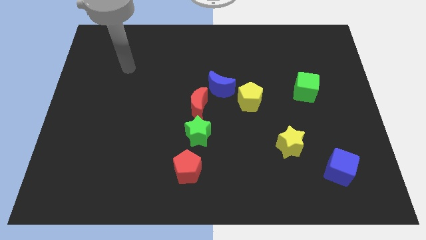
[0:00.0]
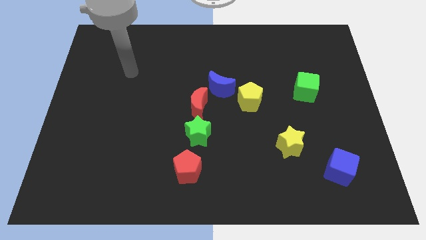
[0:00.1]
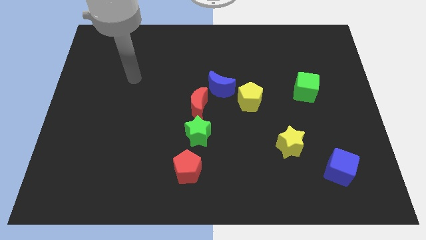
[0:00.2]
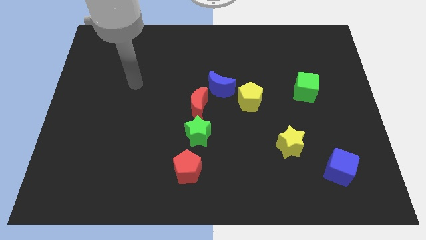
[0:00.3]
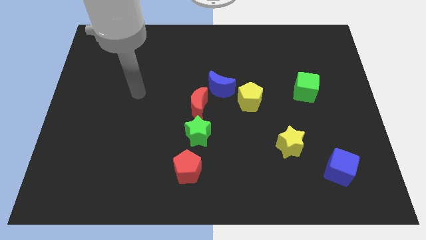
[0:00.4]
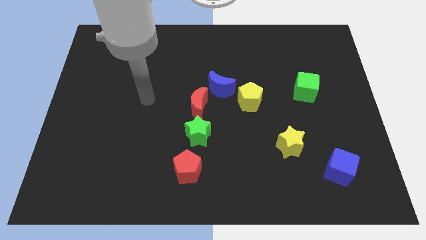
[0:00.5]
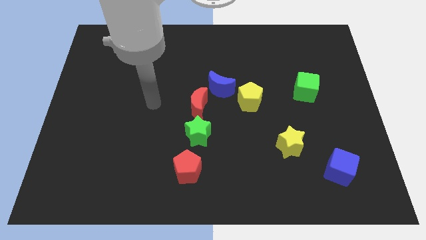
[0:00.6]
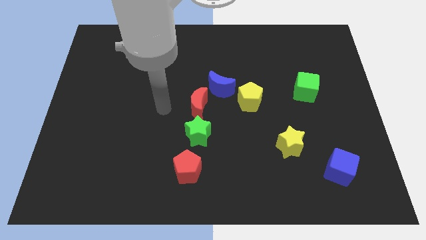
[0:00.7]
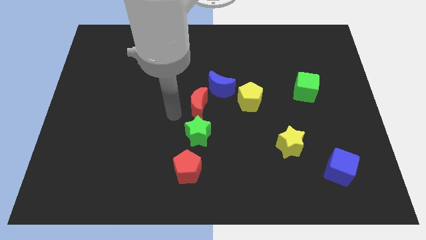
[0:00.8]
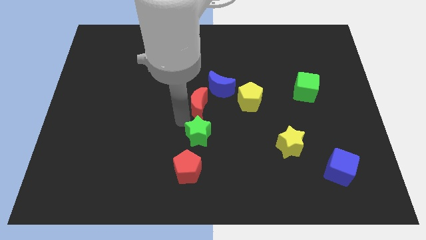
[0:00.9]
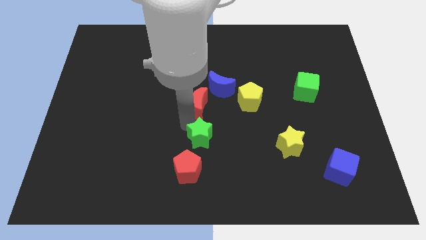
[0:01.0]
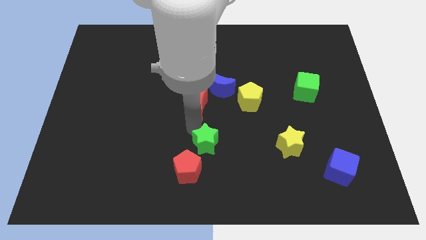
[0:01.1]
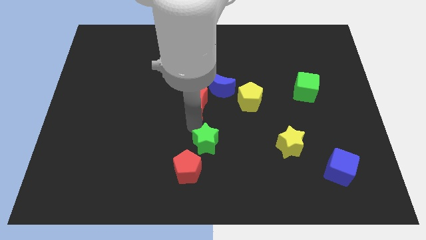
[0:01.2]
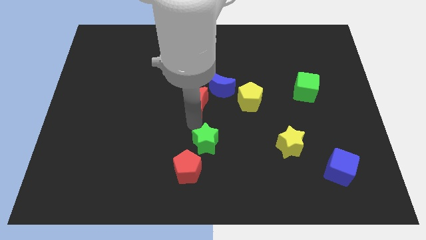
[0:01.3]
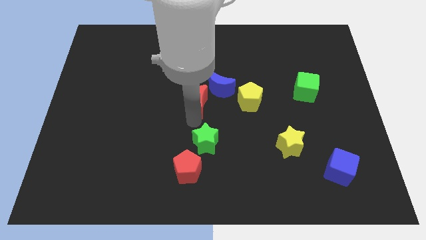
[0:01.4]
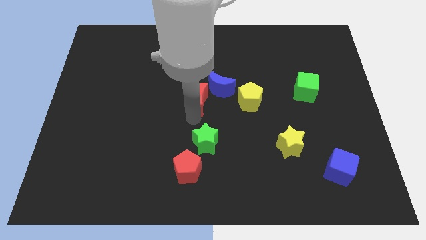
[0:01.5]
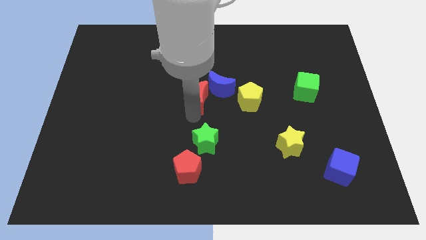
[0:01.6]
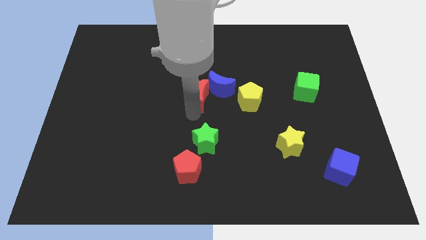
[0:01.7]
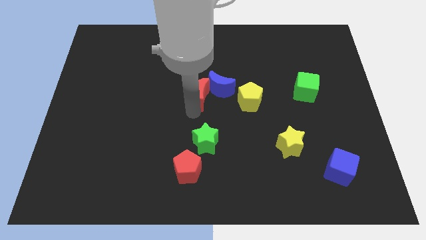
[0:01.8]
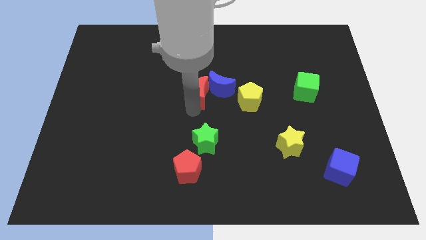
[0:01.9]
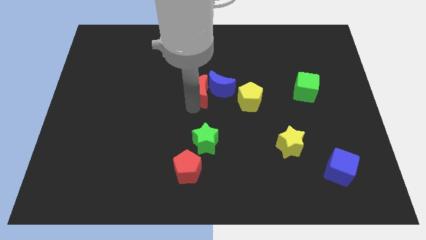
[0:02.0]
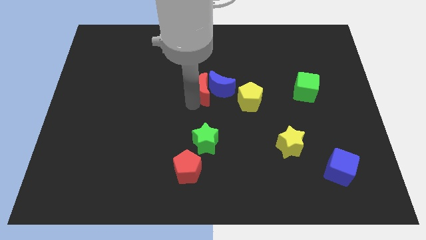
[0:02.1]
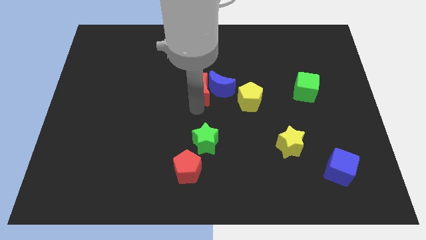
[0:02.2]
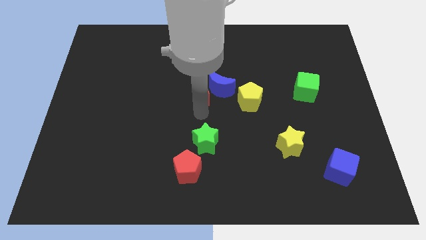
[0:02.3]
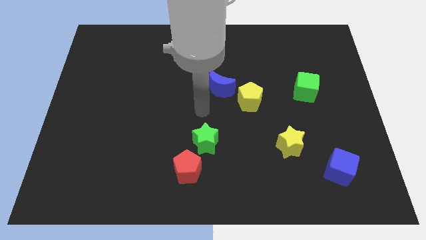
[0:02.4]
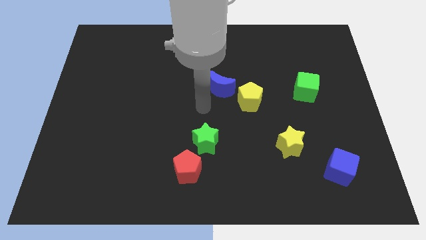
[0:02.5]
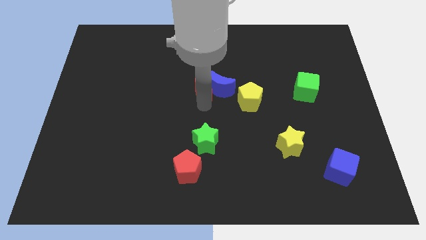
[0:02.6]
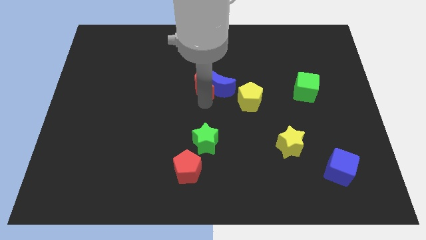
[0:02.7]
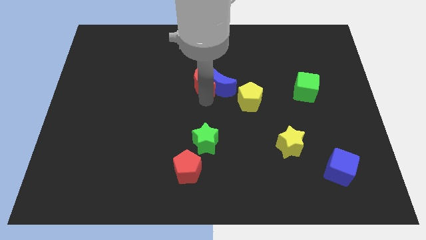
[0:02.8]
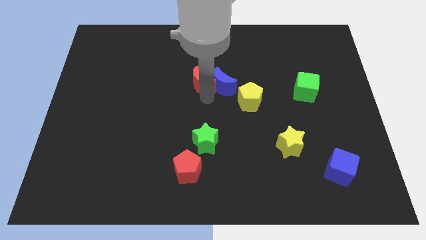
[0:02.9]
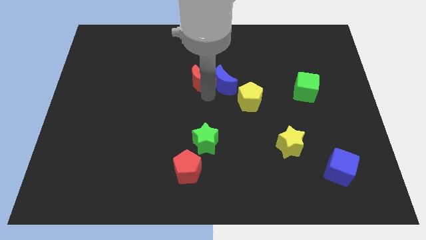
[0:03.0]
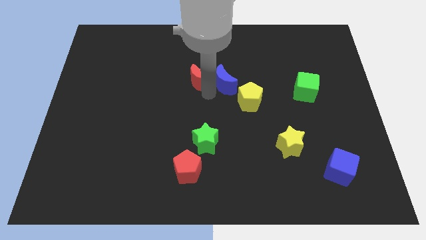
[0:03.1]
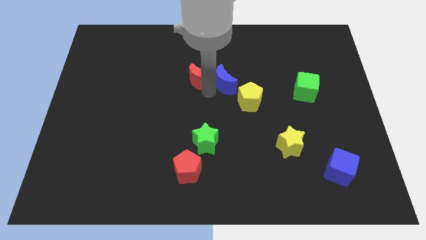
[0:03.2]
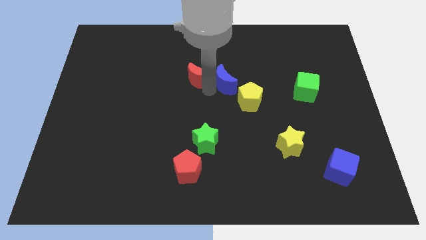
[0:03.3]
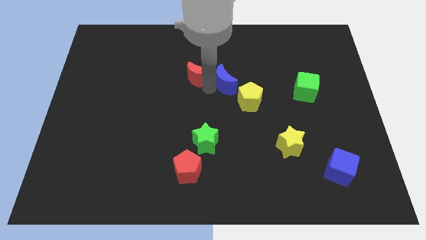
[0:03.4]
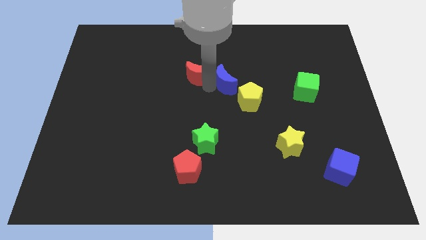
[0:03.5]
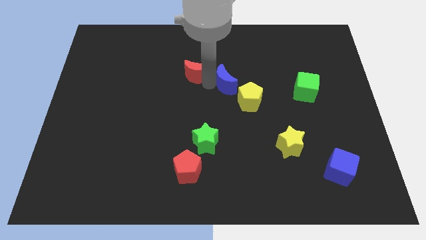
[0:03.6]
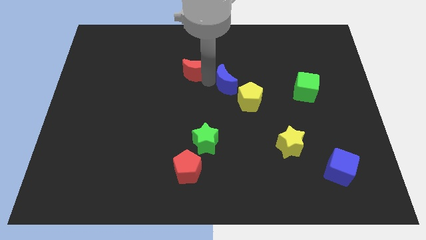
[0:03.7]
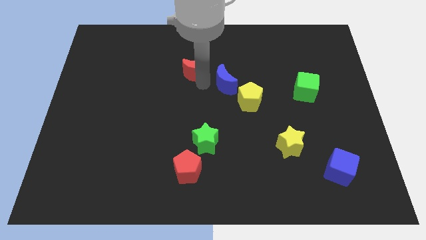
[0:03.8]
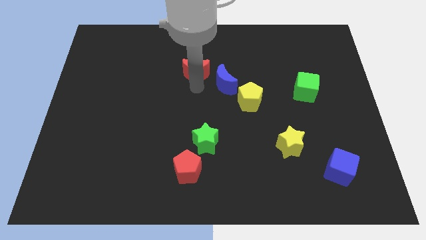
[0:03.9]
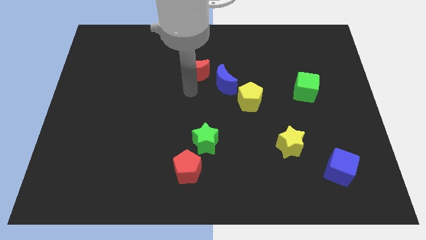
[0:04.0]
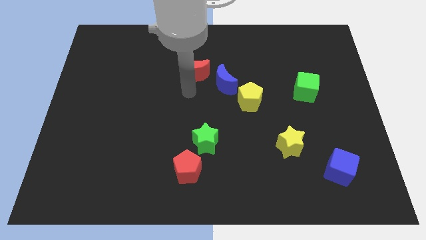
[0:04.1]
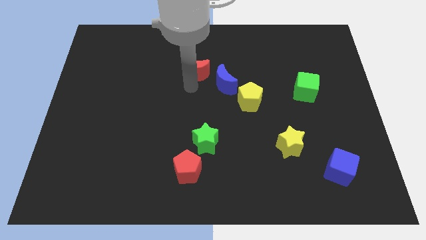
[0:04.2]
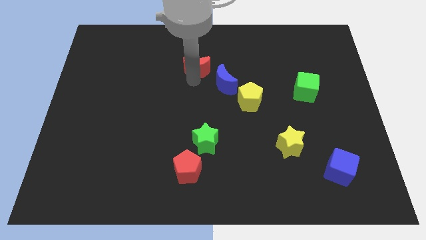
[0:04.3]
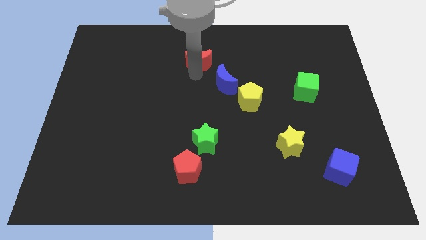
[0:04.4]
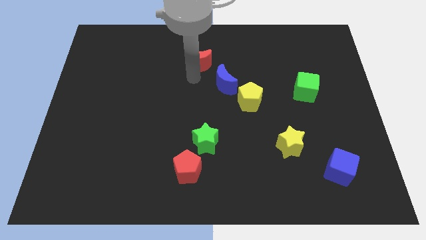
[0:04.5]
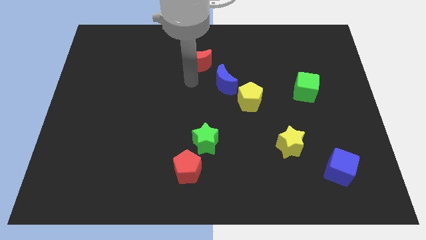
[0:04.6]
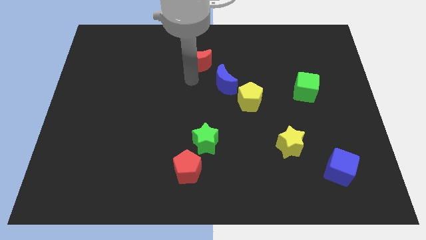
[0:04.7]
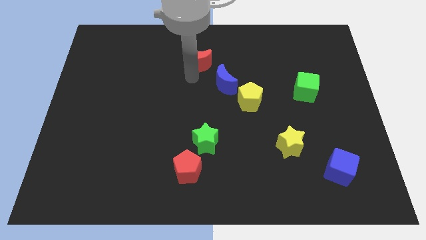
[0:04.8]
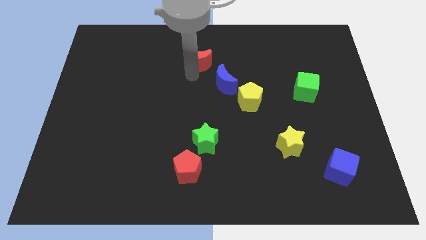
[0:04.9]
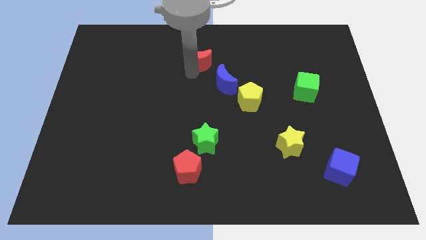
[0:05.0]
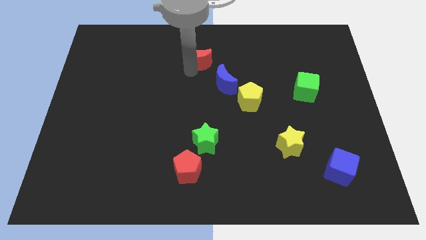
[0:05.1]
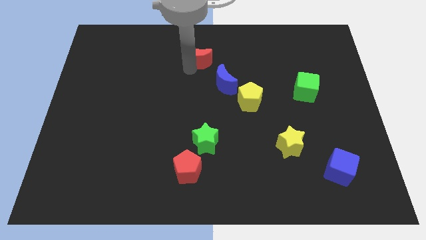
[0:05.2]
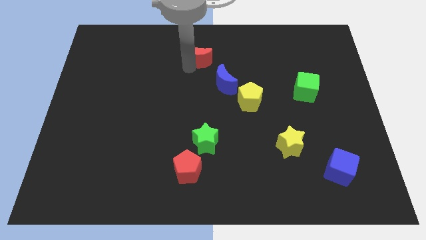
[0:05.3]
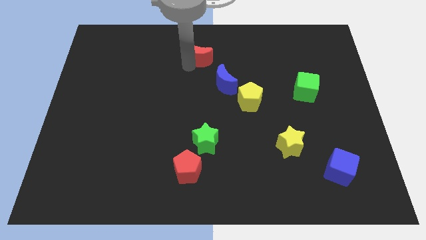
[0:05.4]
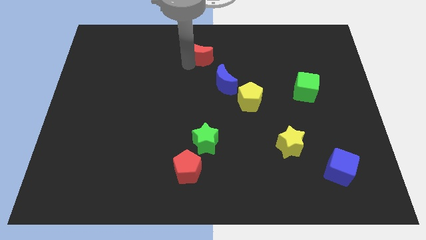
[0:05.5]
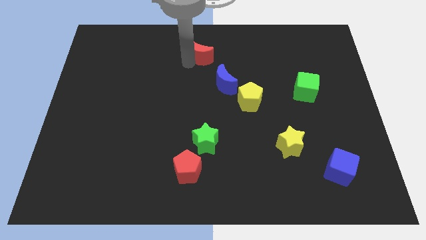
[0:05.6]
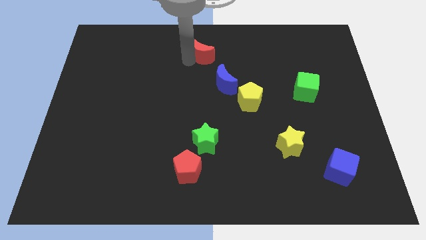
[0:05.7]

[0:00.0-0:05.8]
push the red moon to the top side

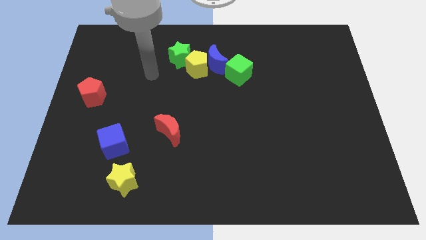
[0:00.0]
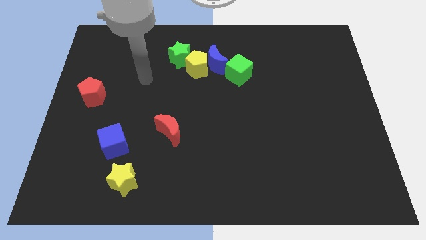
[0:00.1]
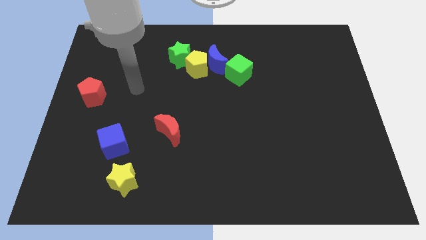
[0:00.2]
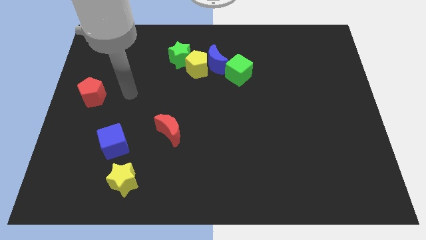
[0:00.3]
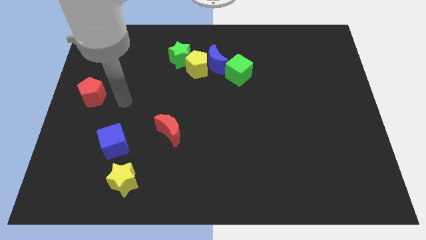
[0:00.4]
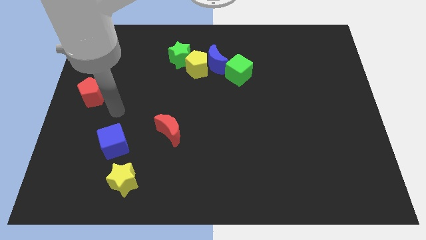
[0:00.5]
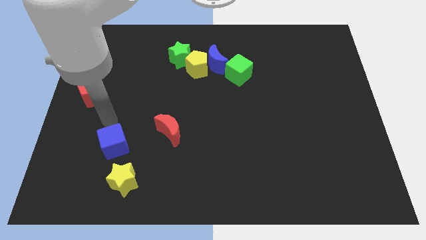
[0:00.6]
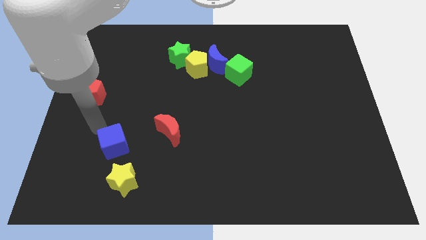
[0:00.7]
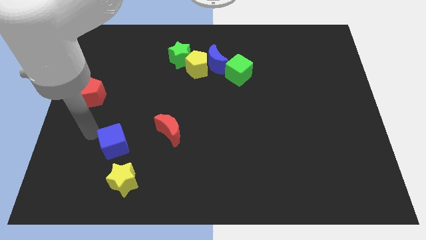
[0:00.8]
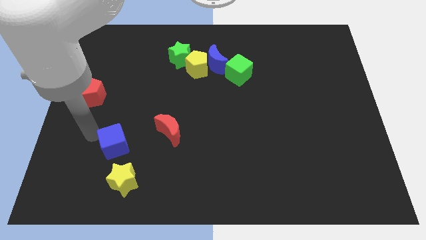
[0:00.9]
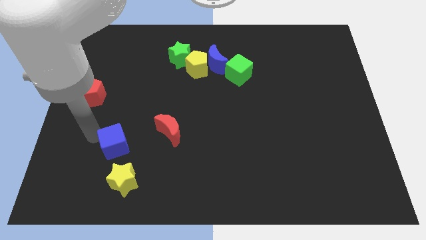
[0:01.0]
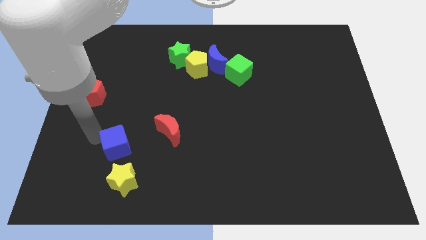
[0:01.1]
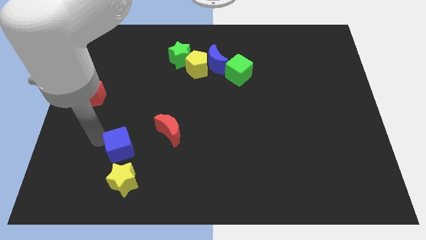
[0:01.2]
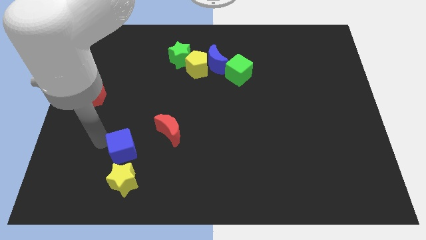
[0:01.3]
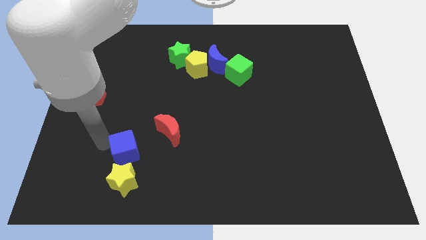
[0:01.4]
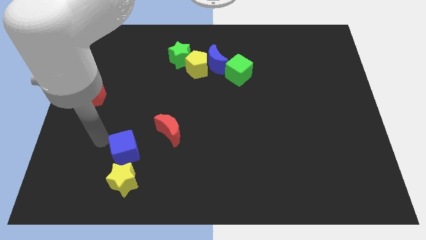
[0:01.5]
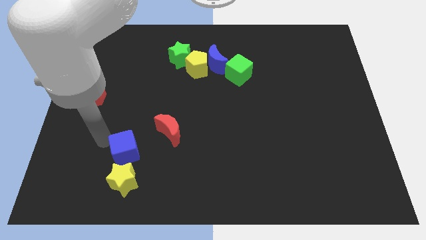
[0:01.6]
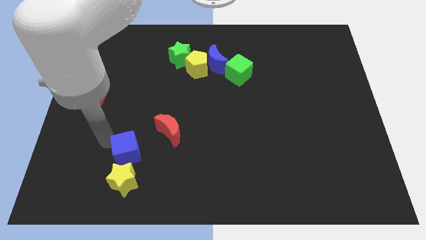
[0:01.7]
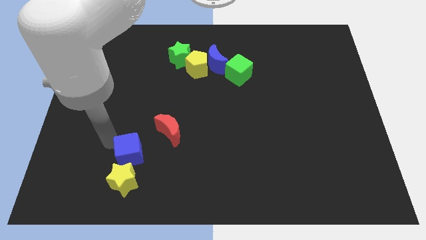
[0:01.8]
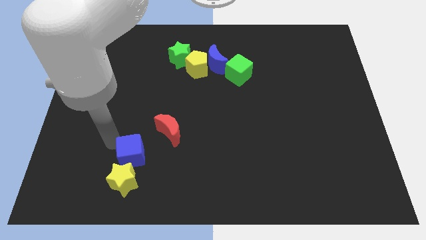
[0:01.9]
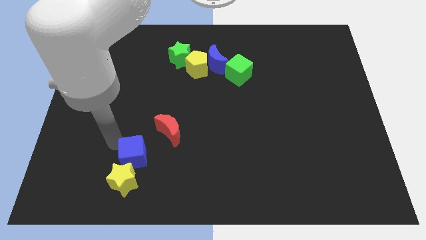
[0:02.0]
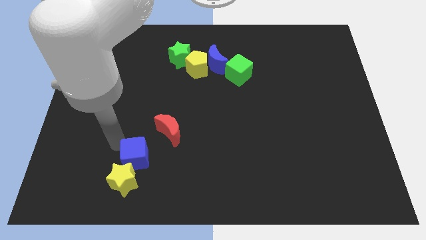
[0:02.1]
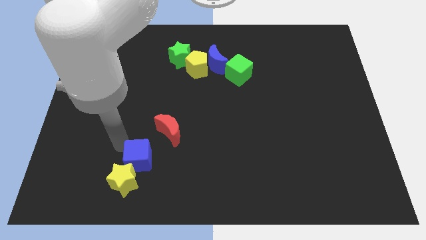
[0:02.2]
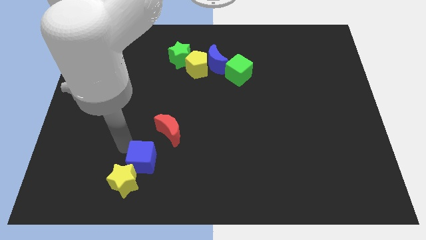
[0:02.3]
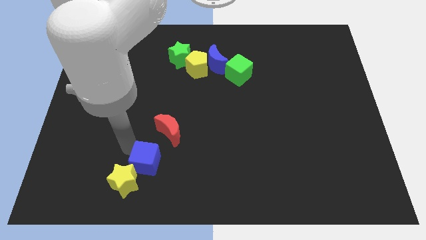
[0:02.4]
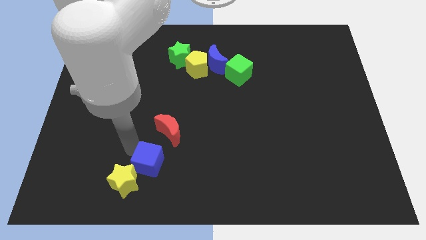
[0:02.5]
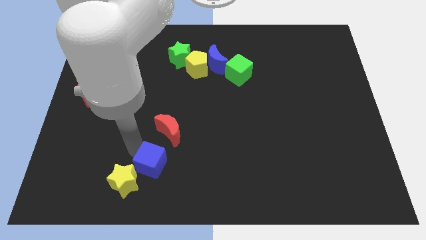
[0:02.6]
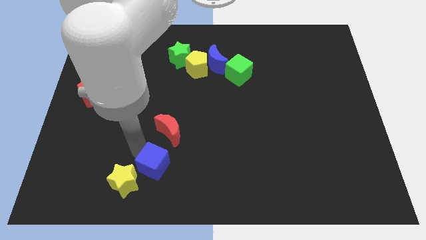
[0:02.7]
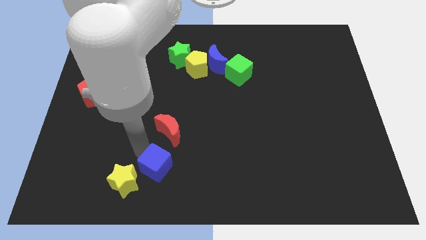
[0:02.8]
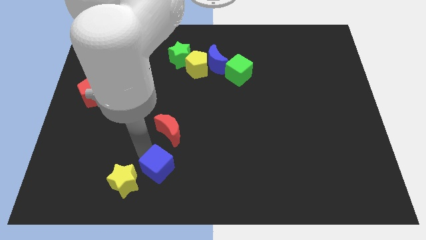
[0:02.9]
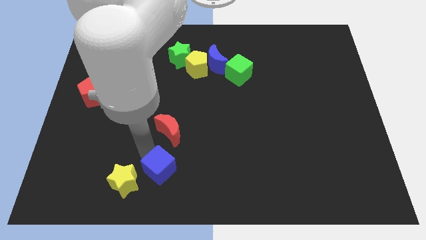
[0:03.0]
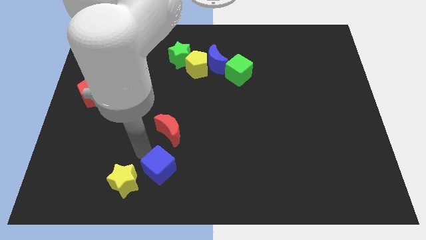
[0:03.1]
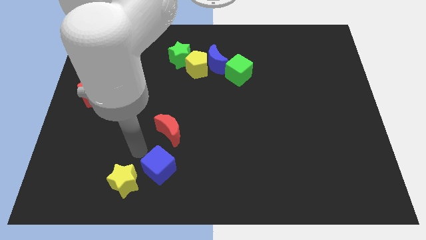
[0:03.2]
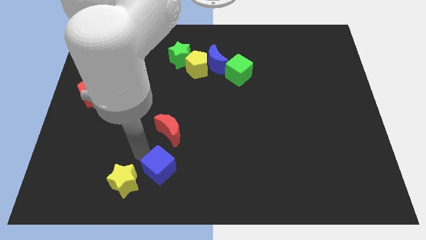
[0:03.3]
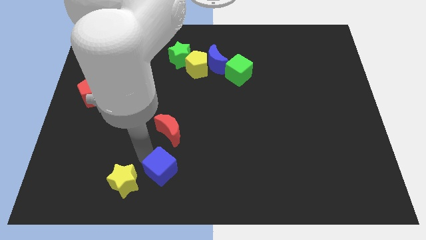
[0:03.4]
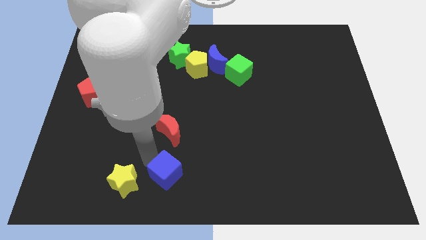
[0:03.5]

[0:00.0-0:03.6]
move the blue cube to the bottom side
